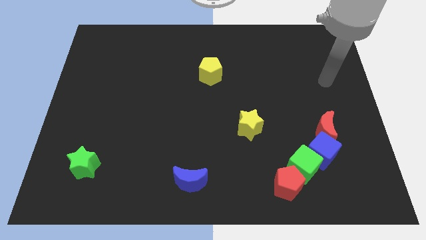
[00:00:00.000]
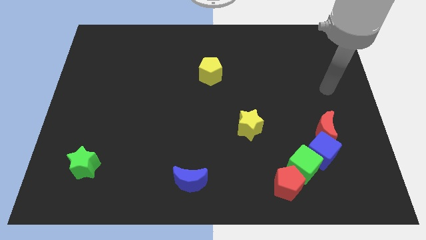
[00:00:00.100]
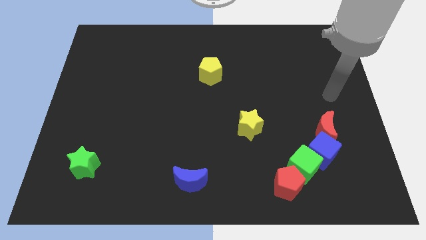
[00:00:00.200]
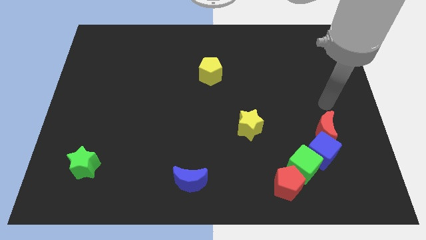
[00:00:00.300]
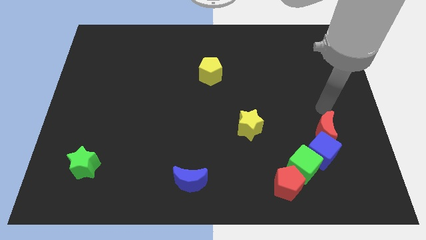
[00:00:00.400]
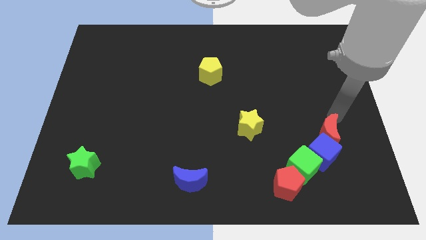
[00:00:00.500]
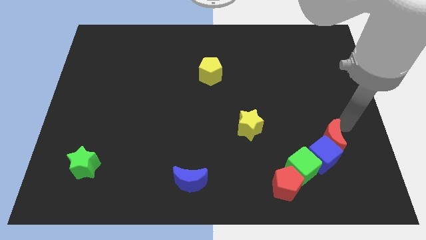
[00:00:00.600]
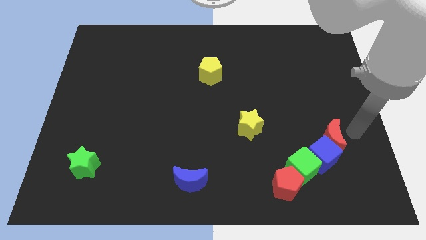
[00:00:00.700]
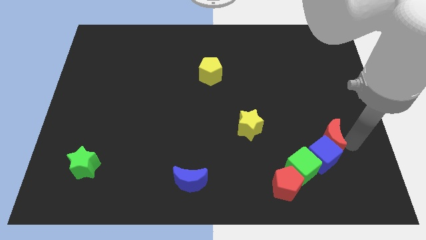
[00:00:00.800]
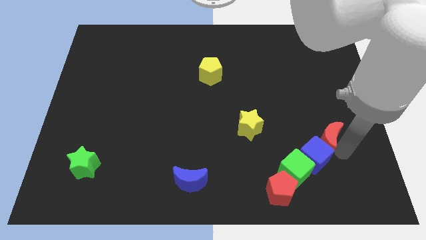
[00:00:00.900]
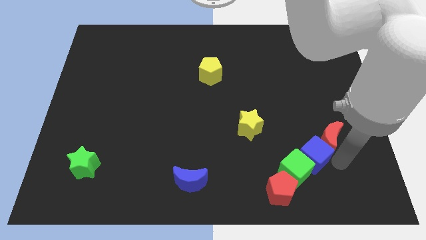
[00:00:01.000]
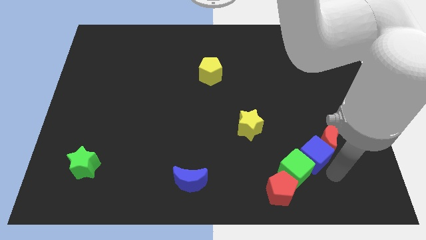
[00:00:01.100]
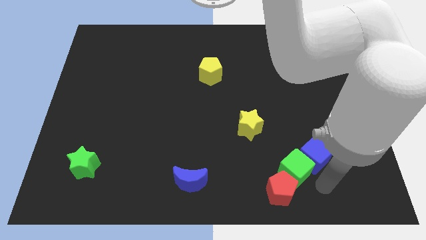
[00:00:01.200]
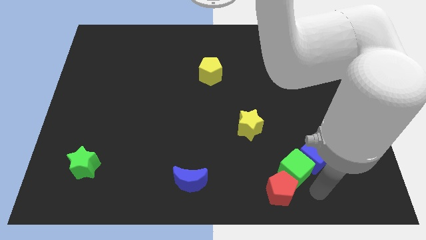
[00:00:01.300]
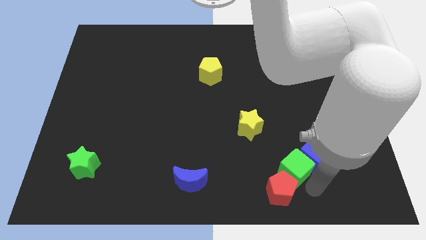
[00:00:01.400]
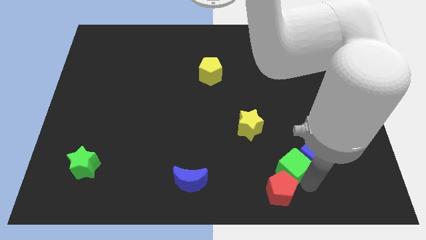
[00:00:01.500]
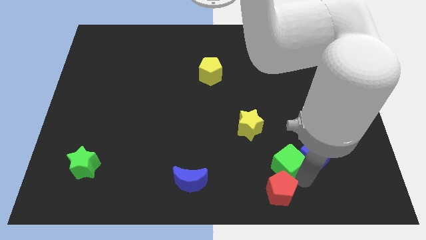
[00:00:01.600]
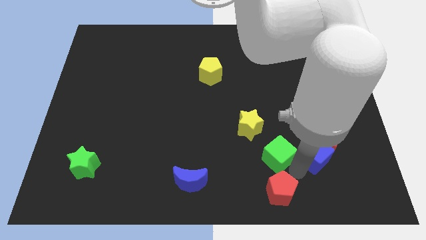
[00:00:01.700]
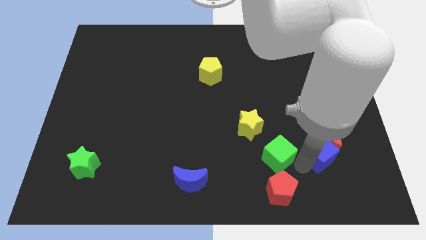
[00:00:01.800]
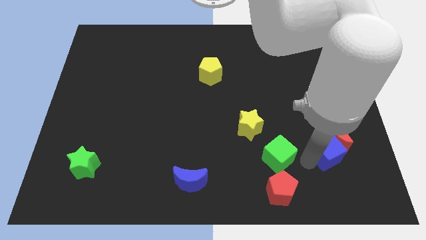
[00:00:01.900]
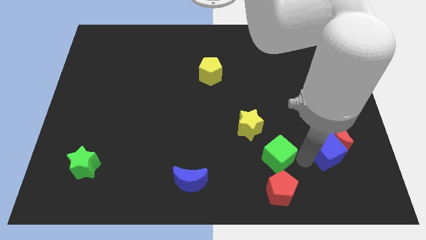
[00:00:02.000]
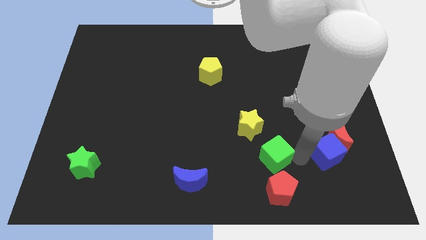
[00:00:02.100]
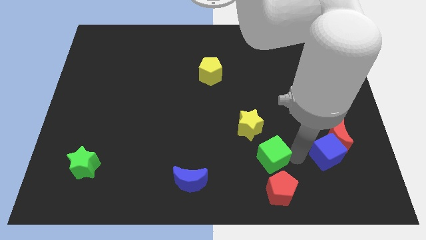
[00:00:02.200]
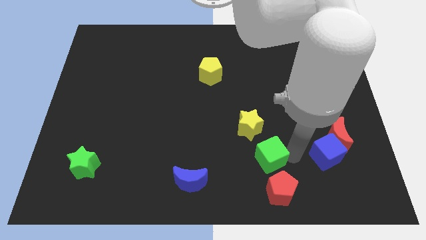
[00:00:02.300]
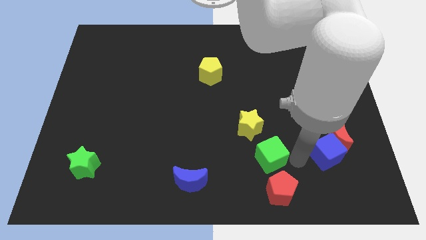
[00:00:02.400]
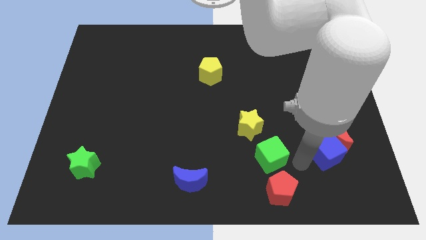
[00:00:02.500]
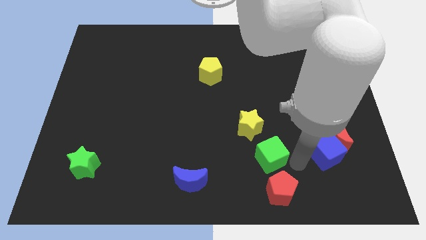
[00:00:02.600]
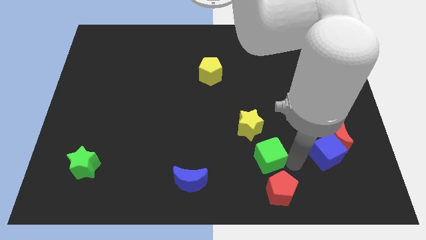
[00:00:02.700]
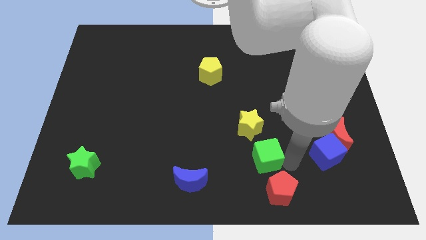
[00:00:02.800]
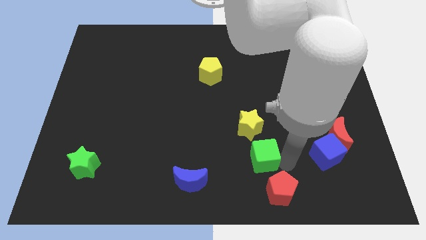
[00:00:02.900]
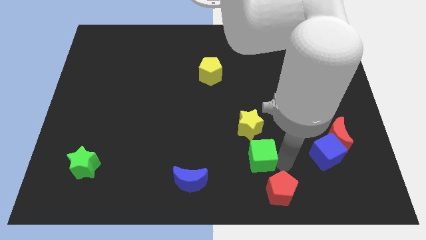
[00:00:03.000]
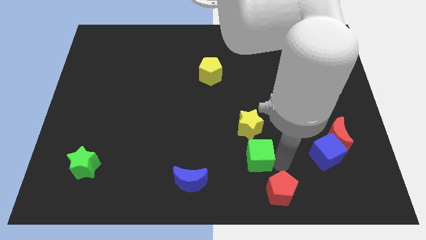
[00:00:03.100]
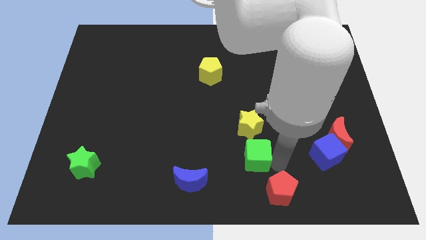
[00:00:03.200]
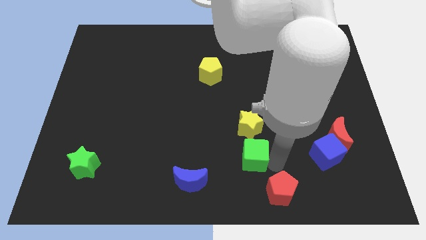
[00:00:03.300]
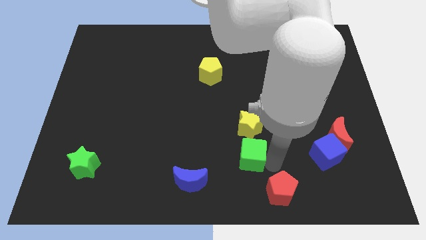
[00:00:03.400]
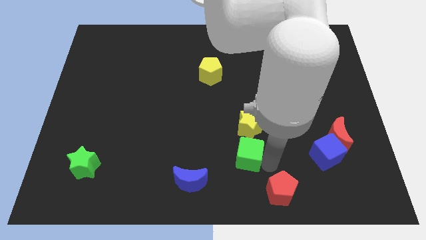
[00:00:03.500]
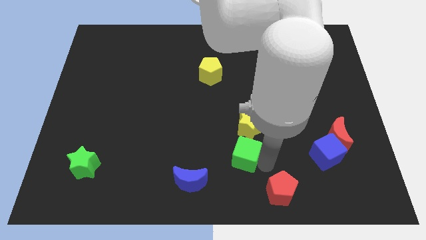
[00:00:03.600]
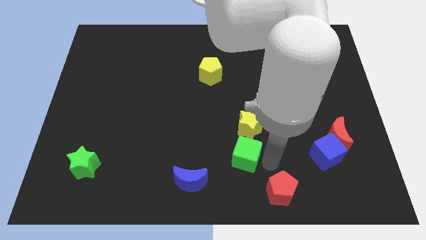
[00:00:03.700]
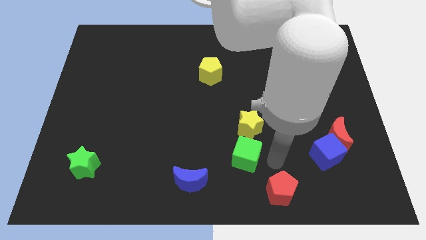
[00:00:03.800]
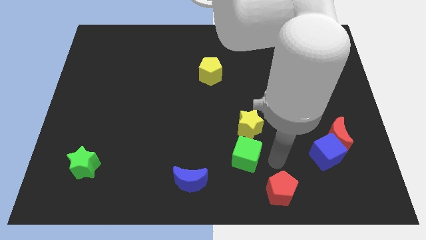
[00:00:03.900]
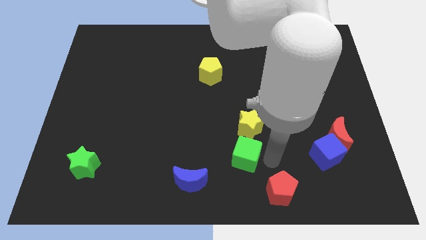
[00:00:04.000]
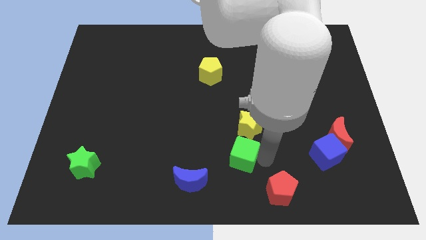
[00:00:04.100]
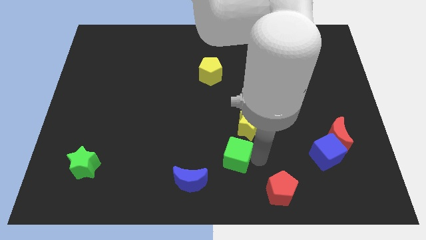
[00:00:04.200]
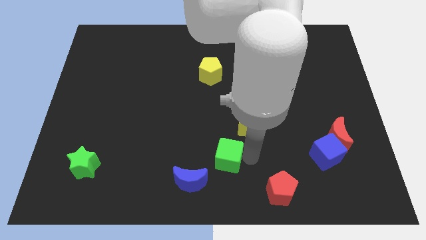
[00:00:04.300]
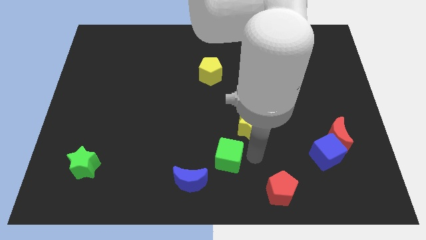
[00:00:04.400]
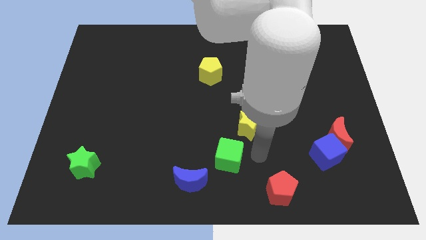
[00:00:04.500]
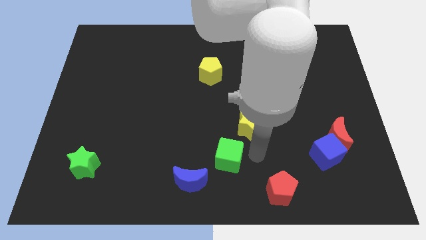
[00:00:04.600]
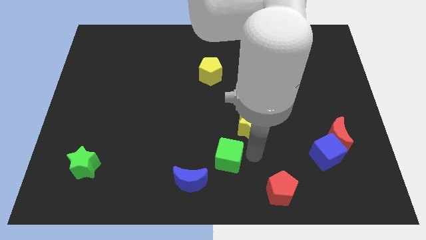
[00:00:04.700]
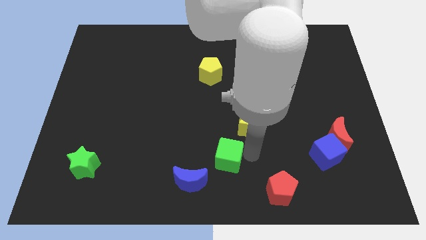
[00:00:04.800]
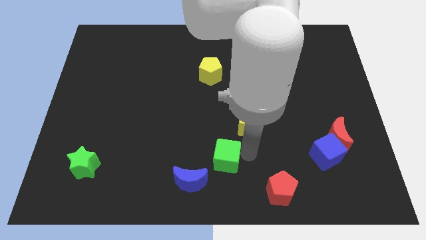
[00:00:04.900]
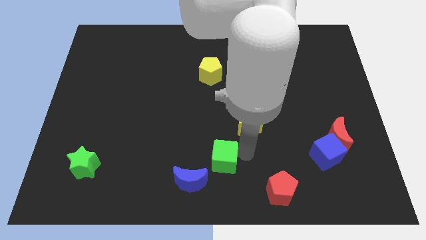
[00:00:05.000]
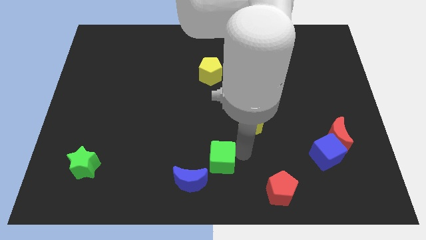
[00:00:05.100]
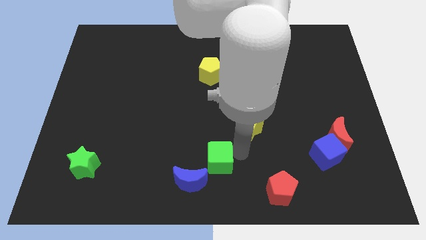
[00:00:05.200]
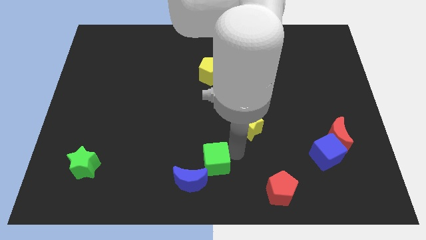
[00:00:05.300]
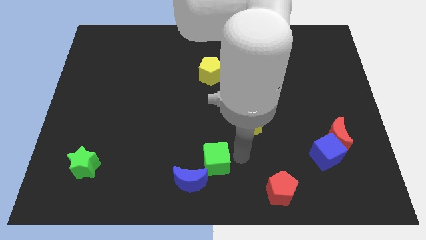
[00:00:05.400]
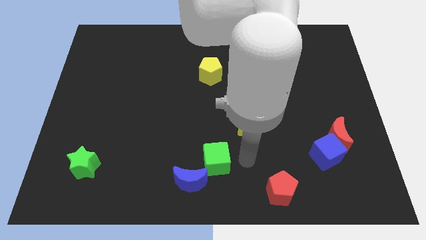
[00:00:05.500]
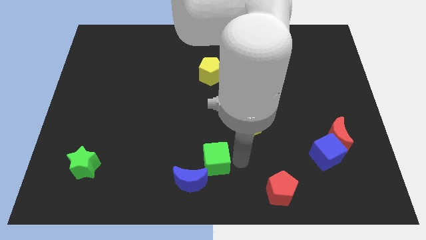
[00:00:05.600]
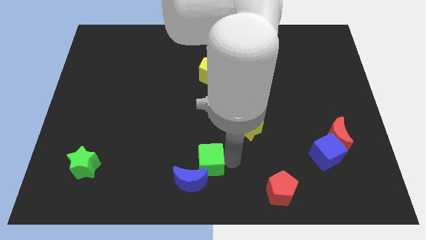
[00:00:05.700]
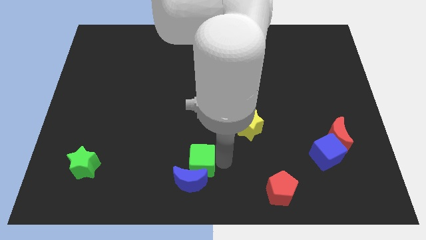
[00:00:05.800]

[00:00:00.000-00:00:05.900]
move the green cube left

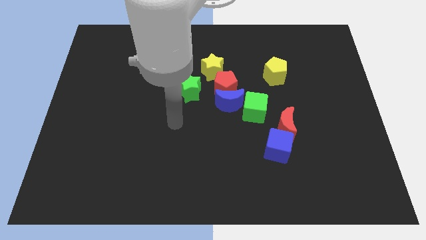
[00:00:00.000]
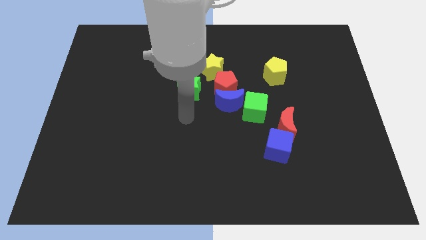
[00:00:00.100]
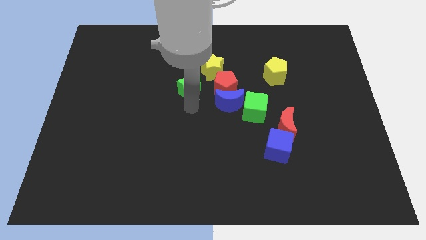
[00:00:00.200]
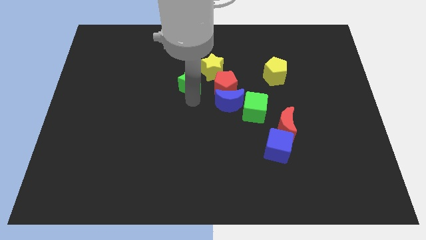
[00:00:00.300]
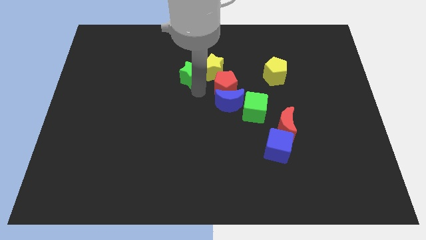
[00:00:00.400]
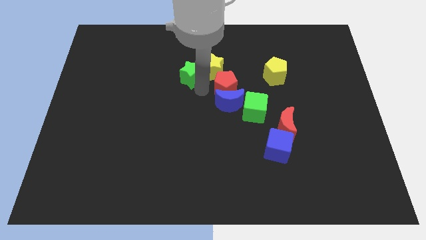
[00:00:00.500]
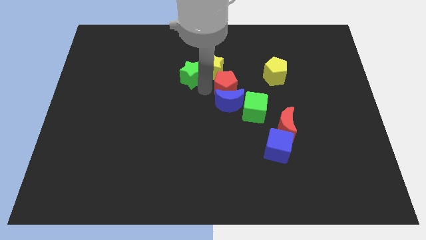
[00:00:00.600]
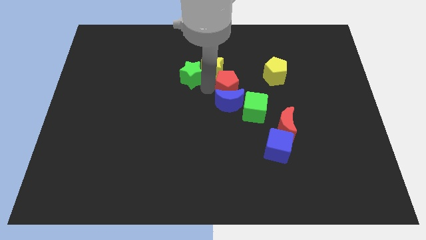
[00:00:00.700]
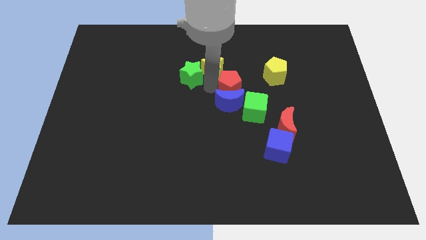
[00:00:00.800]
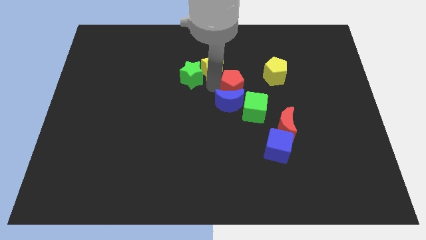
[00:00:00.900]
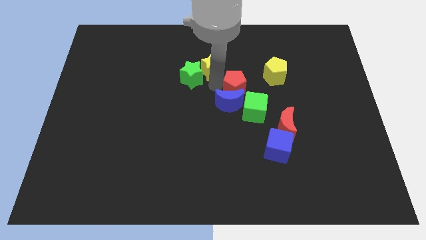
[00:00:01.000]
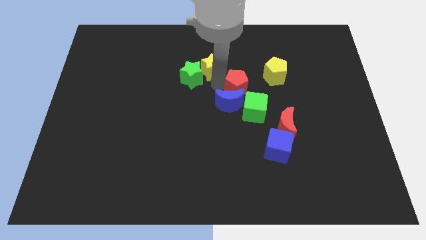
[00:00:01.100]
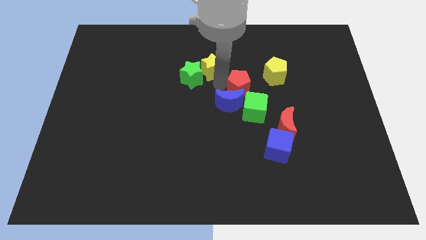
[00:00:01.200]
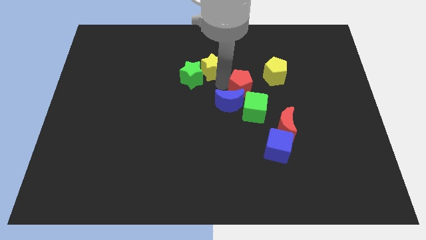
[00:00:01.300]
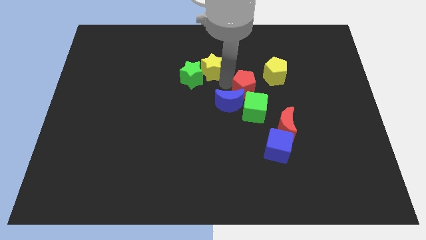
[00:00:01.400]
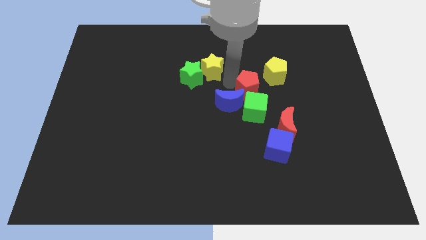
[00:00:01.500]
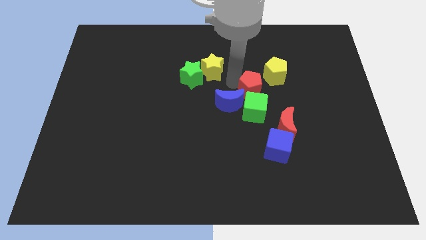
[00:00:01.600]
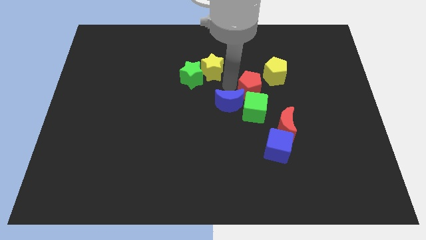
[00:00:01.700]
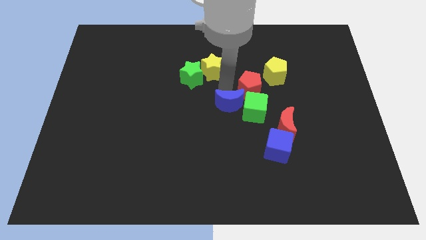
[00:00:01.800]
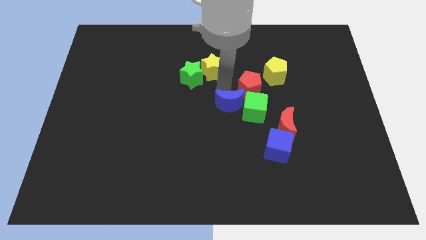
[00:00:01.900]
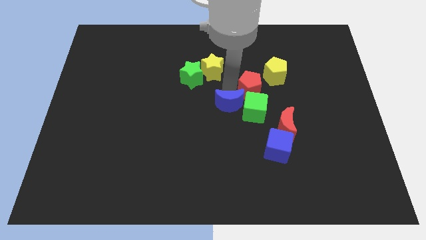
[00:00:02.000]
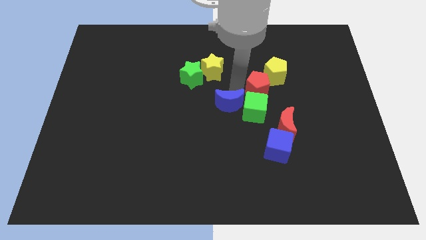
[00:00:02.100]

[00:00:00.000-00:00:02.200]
push the red pentagon somewhat right

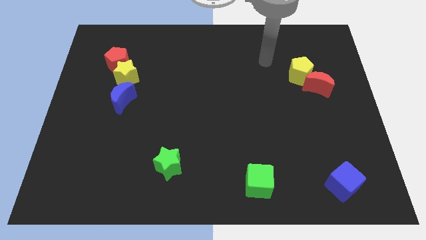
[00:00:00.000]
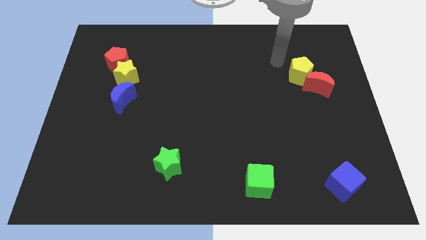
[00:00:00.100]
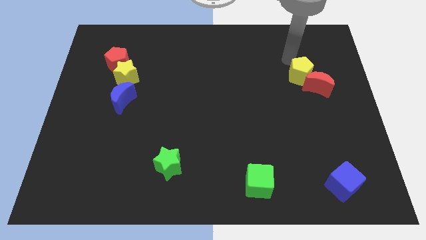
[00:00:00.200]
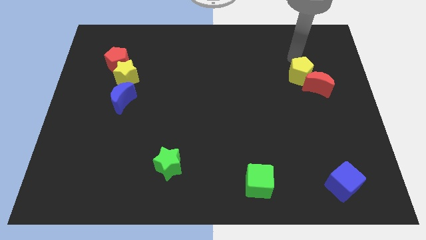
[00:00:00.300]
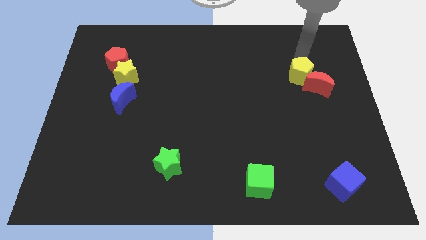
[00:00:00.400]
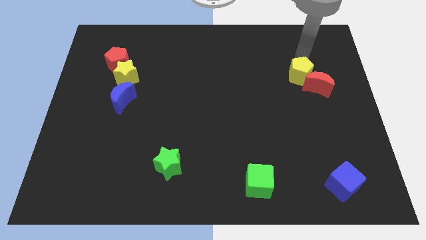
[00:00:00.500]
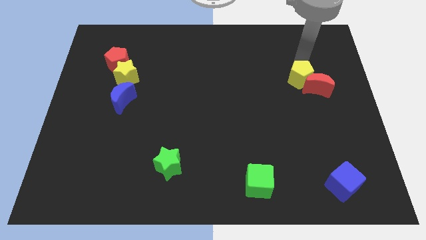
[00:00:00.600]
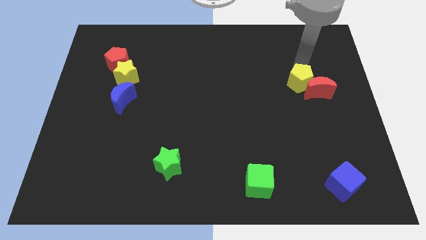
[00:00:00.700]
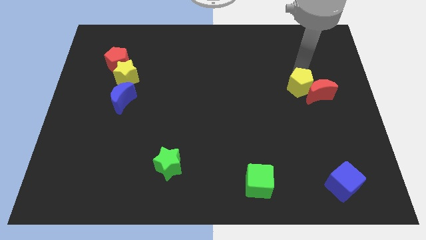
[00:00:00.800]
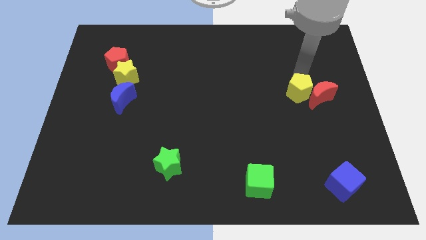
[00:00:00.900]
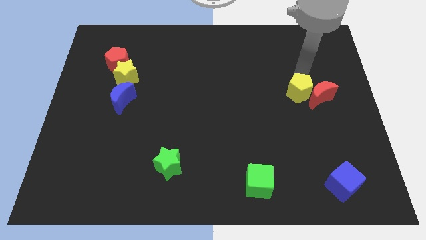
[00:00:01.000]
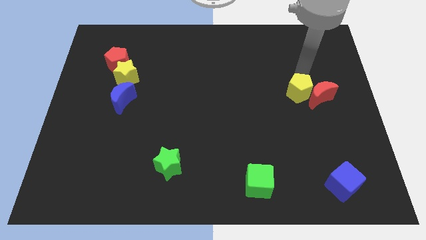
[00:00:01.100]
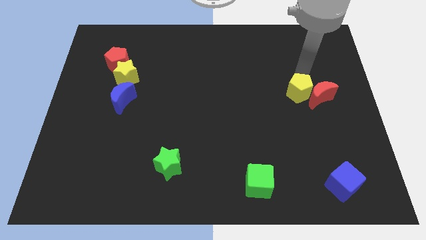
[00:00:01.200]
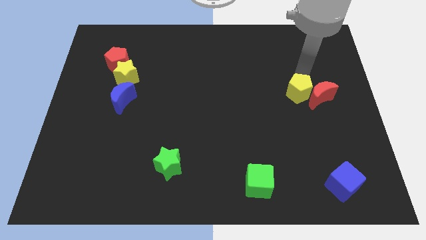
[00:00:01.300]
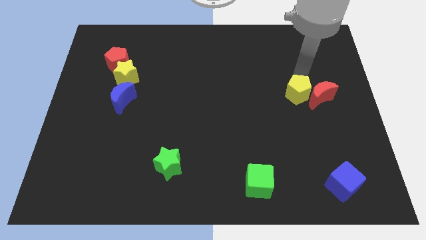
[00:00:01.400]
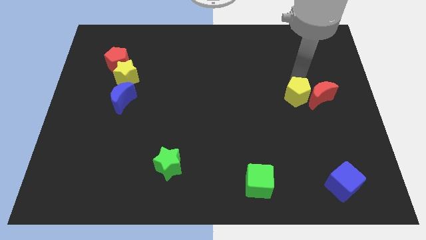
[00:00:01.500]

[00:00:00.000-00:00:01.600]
slightly slide the yellow pentagon down
